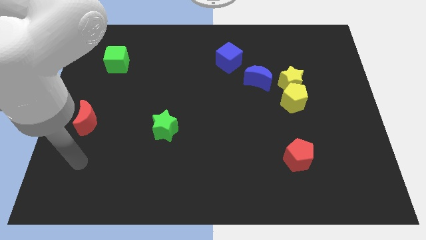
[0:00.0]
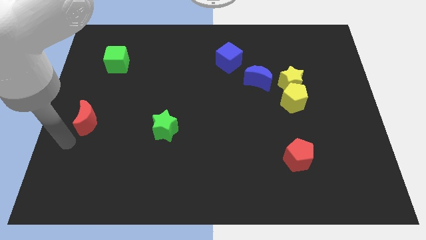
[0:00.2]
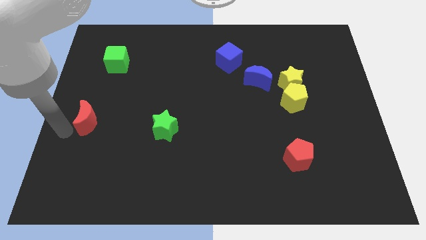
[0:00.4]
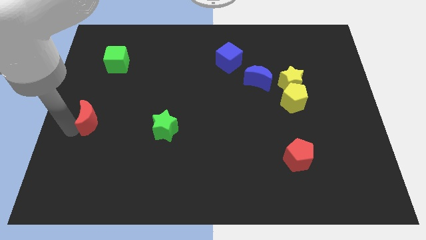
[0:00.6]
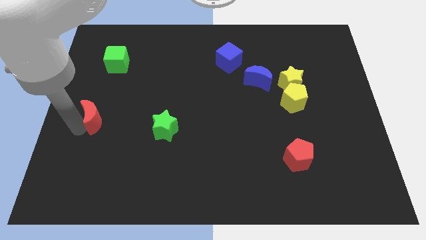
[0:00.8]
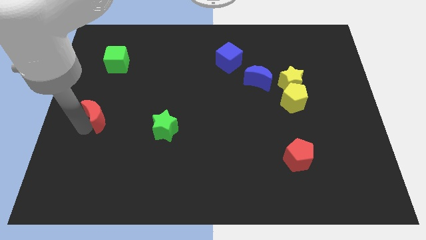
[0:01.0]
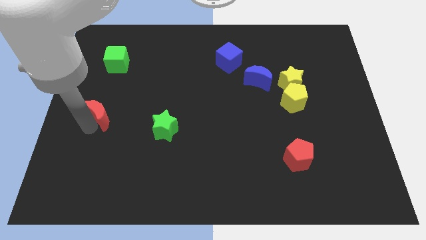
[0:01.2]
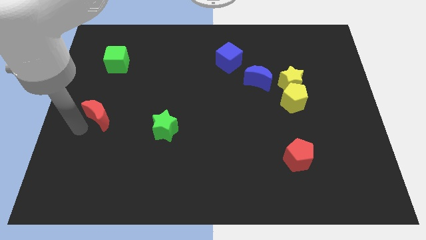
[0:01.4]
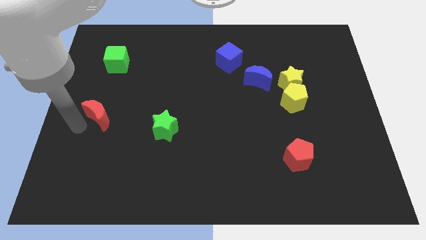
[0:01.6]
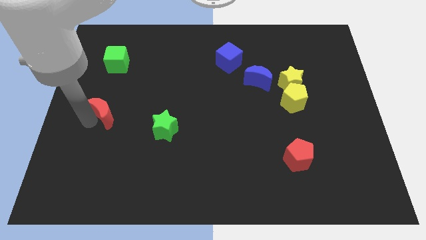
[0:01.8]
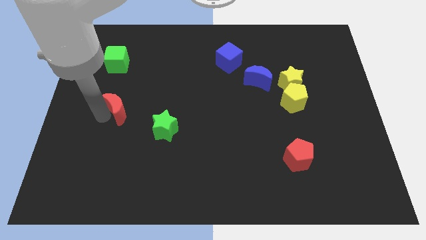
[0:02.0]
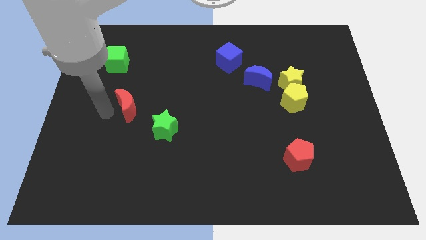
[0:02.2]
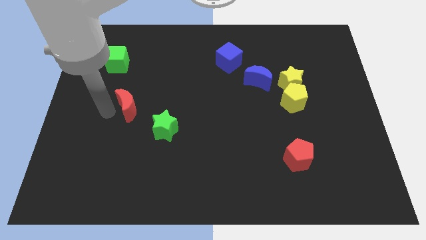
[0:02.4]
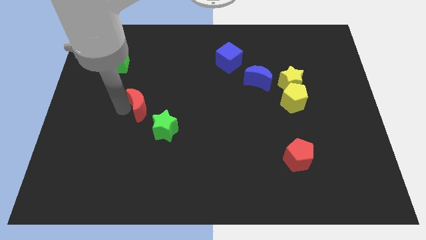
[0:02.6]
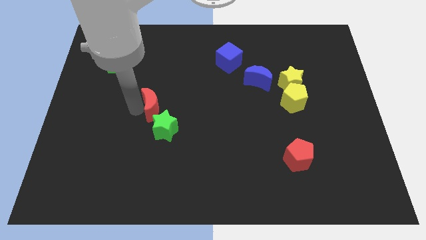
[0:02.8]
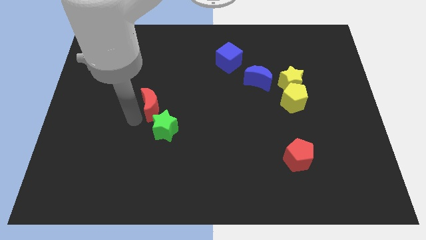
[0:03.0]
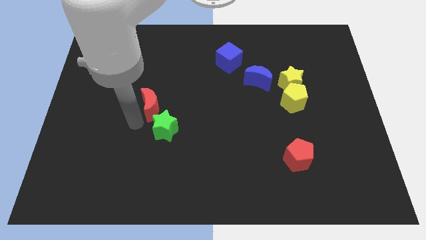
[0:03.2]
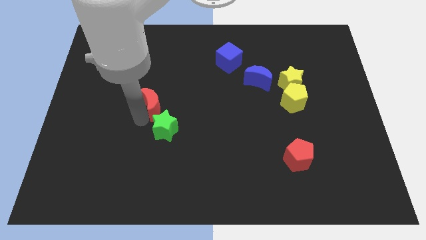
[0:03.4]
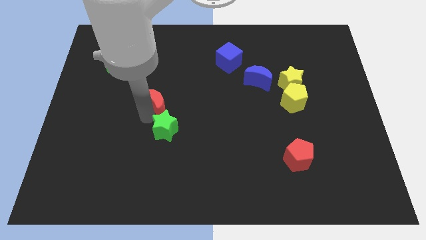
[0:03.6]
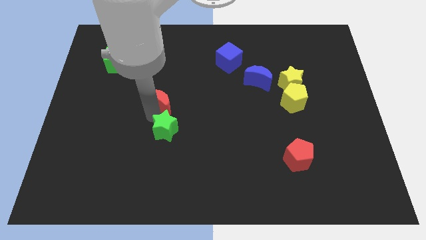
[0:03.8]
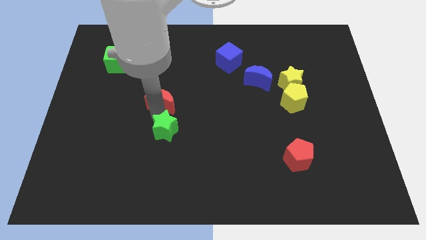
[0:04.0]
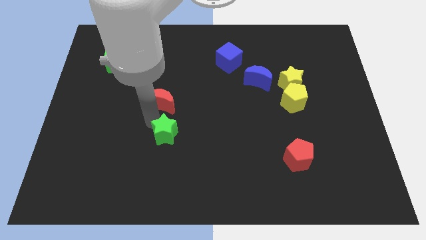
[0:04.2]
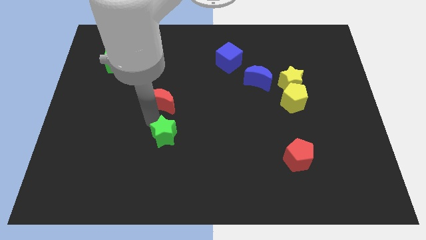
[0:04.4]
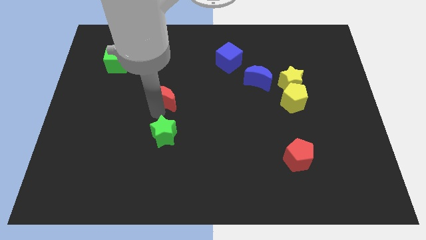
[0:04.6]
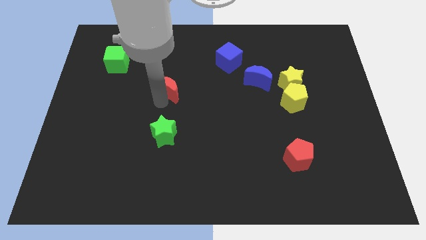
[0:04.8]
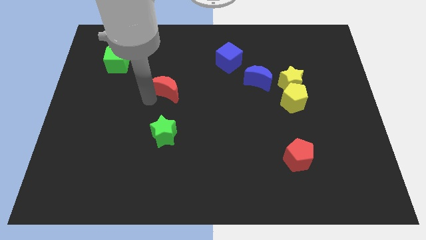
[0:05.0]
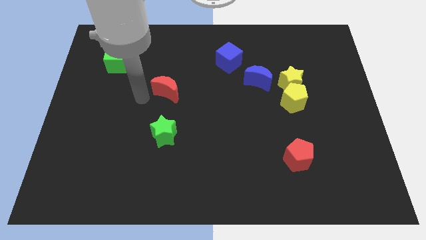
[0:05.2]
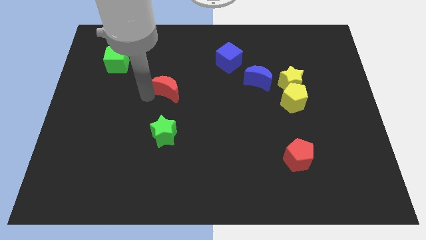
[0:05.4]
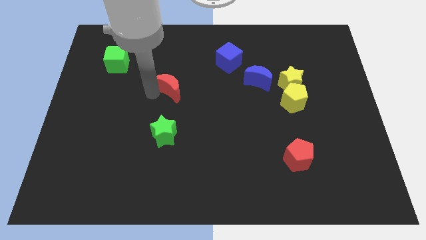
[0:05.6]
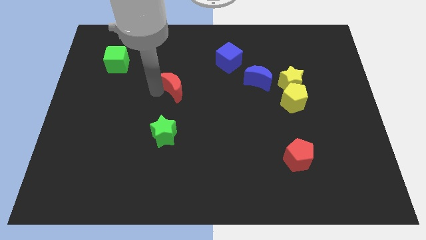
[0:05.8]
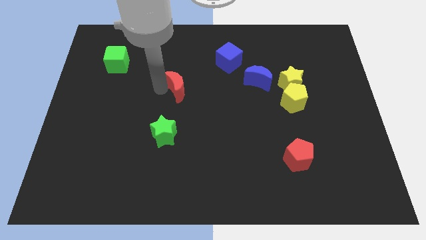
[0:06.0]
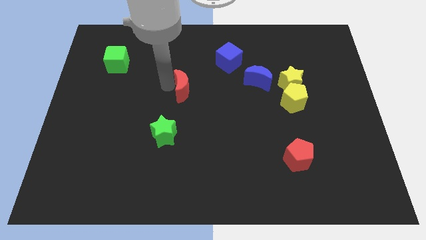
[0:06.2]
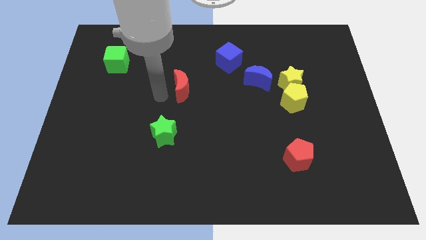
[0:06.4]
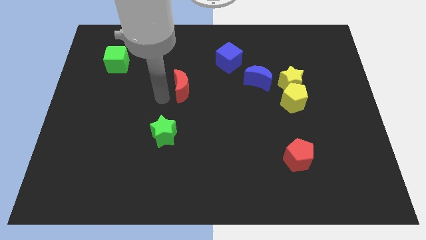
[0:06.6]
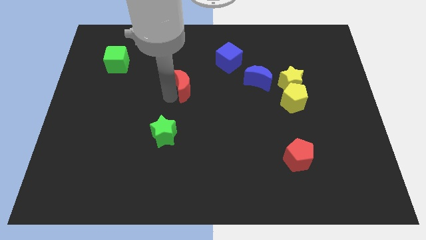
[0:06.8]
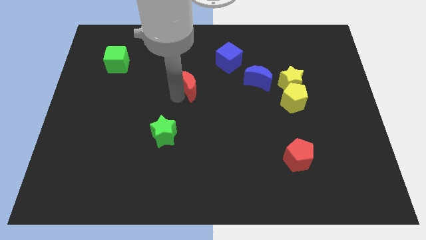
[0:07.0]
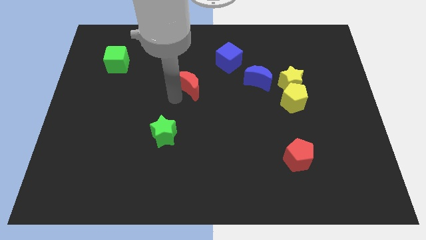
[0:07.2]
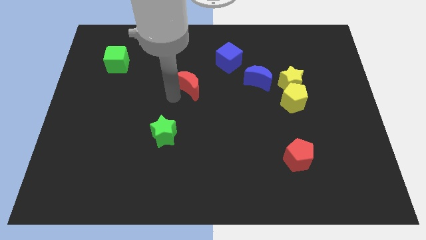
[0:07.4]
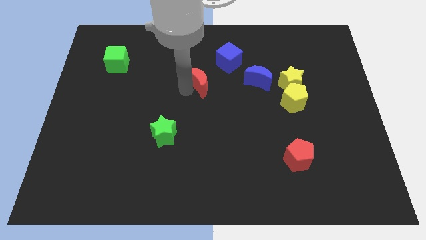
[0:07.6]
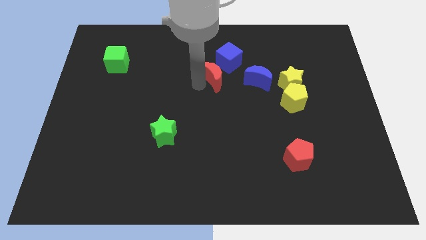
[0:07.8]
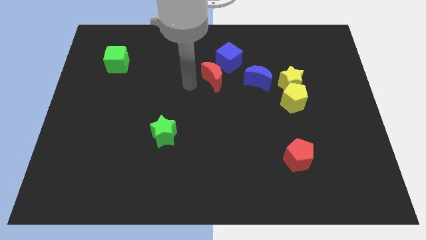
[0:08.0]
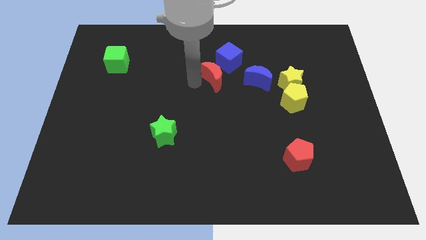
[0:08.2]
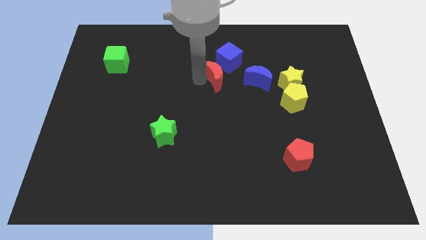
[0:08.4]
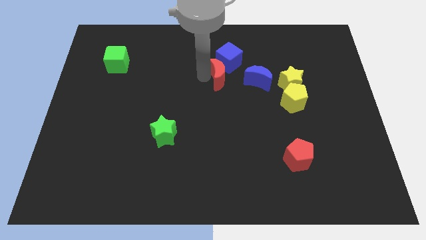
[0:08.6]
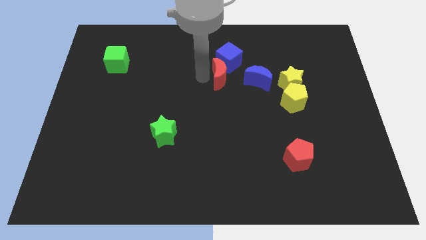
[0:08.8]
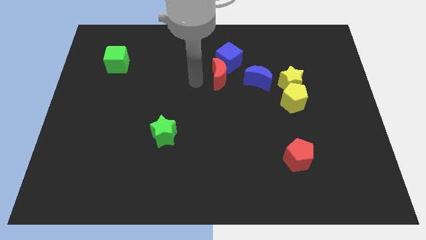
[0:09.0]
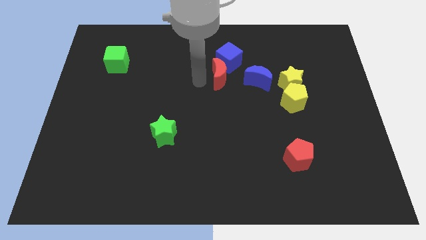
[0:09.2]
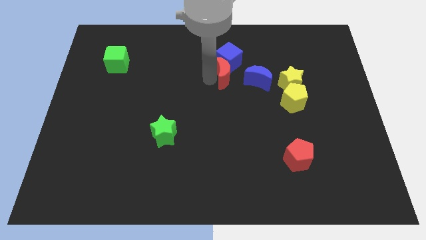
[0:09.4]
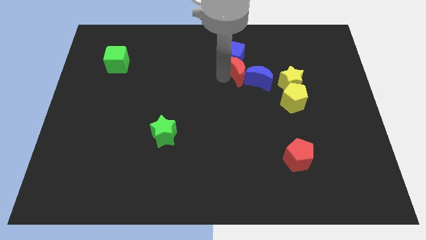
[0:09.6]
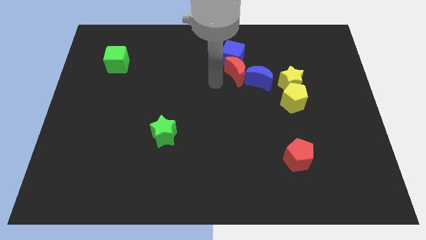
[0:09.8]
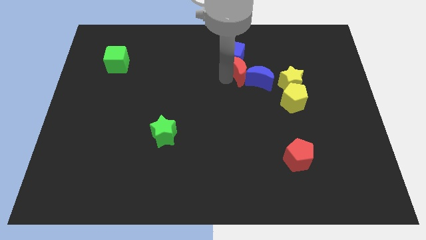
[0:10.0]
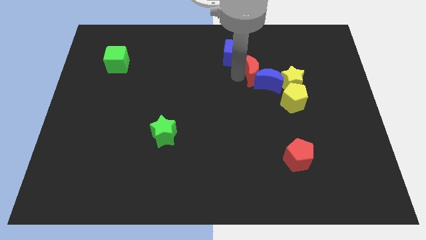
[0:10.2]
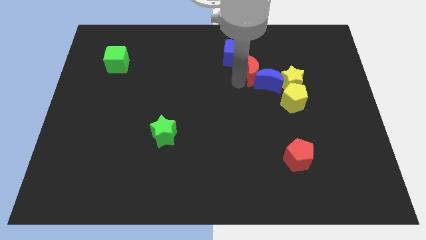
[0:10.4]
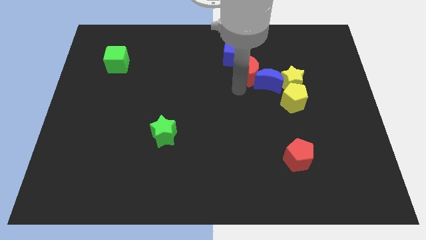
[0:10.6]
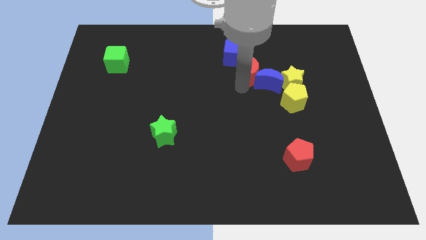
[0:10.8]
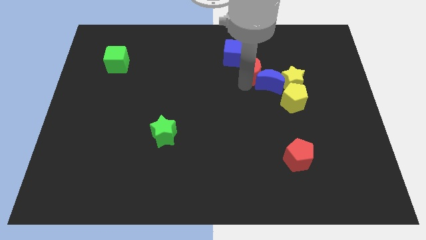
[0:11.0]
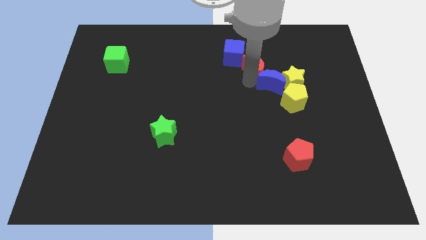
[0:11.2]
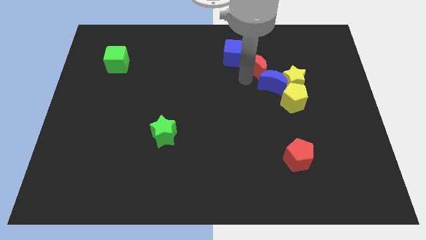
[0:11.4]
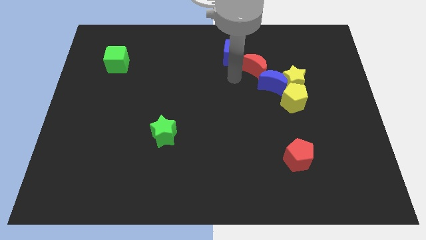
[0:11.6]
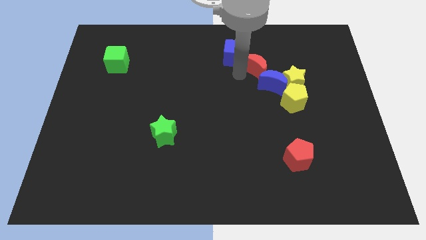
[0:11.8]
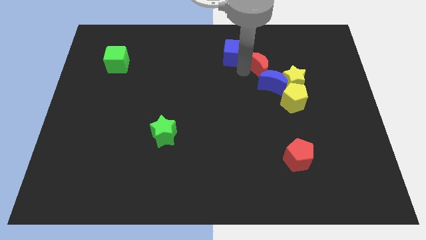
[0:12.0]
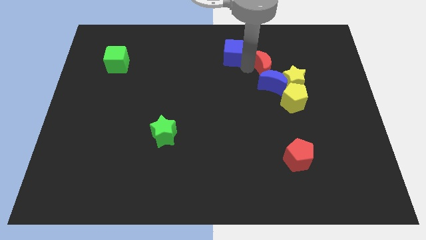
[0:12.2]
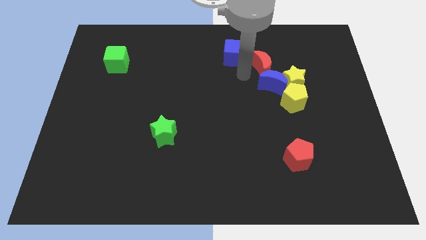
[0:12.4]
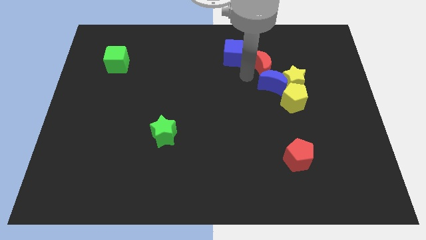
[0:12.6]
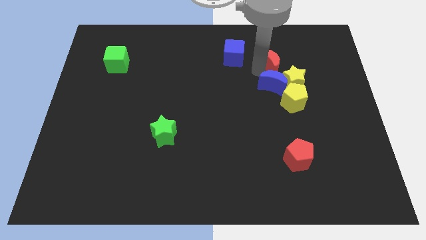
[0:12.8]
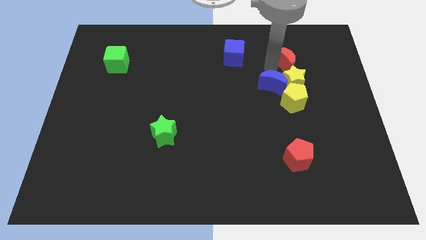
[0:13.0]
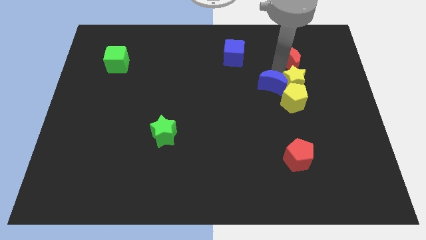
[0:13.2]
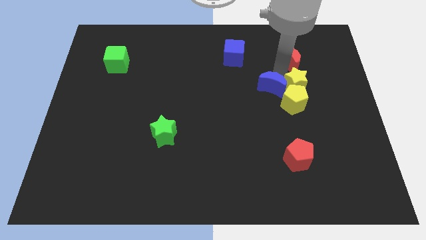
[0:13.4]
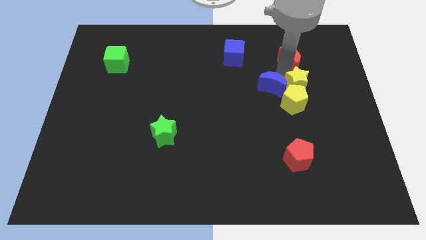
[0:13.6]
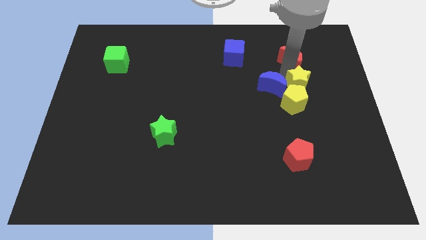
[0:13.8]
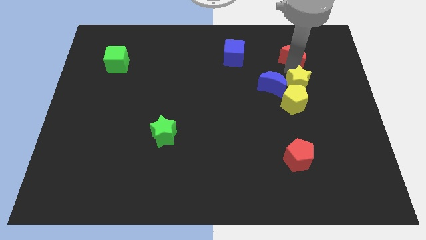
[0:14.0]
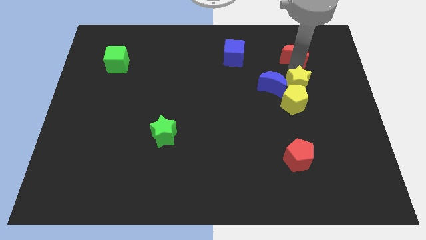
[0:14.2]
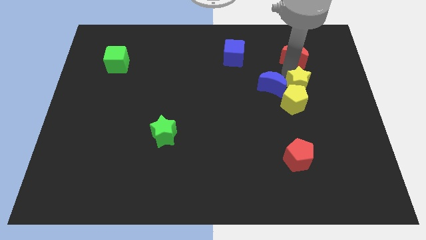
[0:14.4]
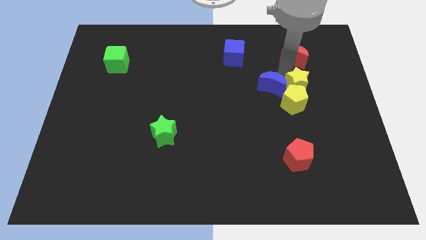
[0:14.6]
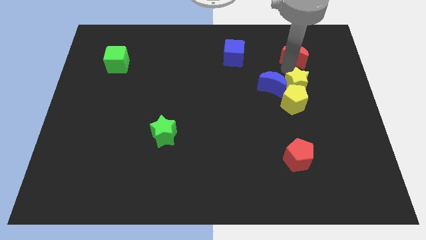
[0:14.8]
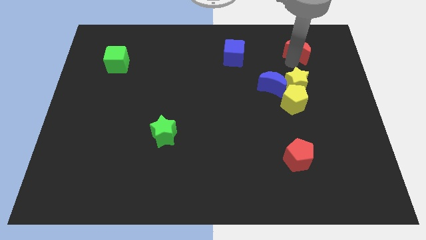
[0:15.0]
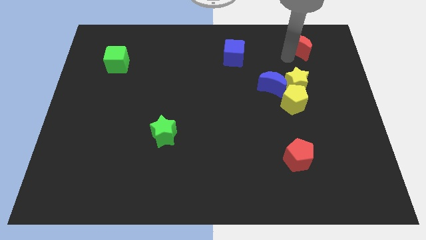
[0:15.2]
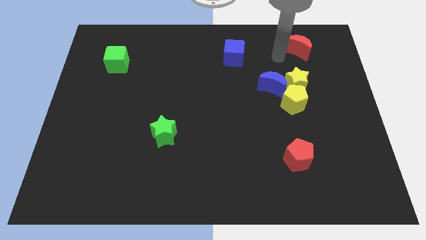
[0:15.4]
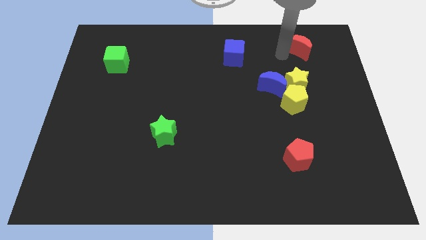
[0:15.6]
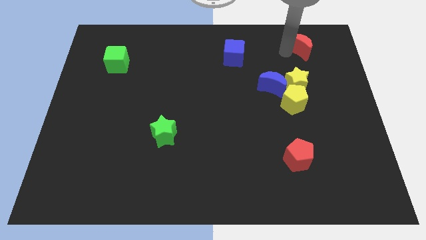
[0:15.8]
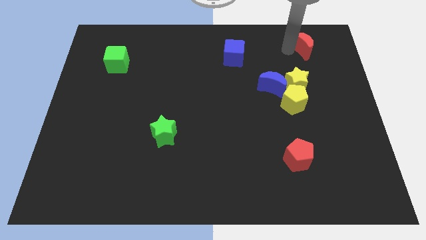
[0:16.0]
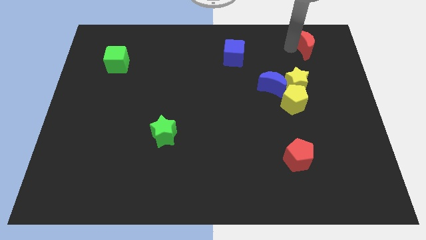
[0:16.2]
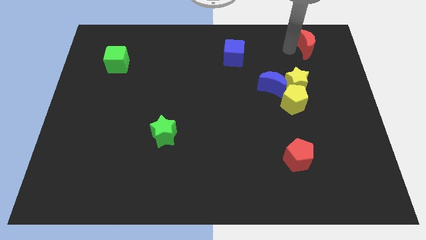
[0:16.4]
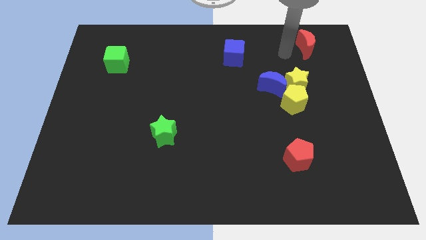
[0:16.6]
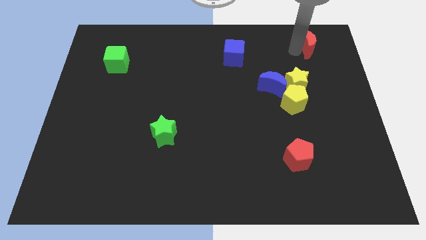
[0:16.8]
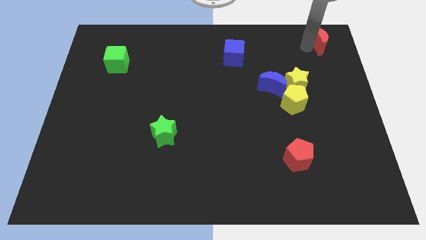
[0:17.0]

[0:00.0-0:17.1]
push the red moon to the top right
